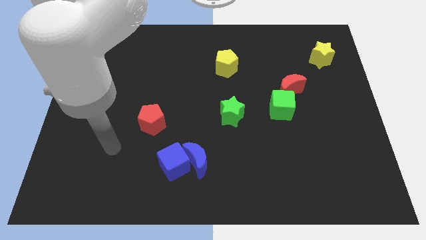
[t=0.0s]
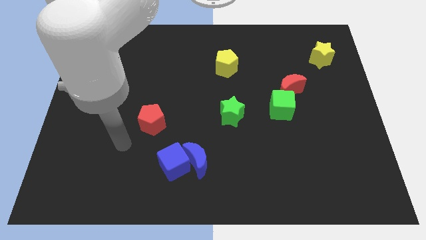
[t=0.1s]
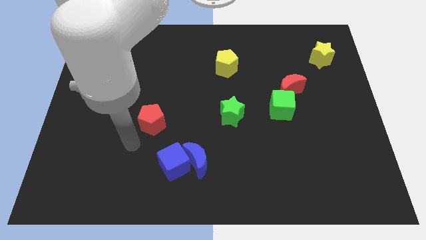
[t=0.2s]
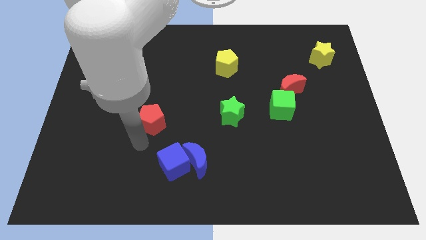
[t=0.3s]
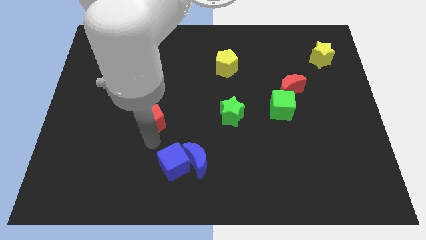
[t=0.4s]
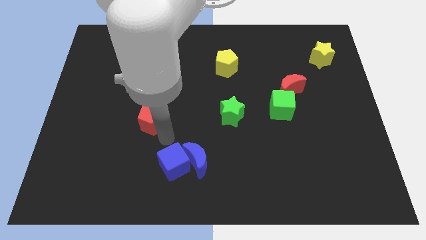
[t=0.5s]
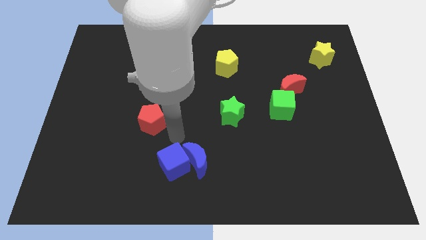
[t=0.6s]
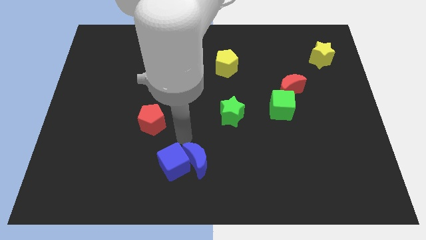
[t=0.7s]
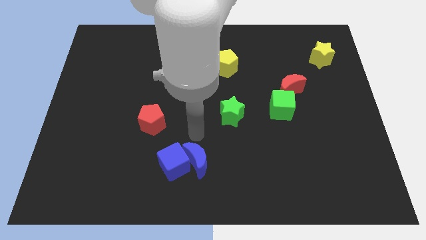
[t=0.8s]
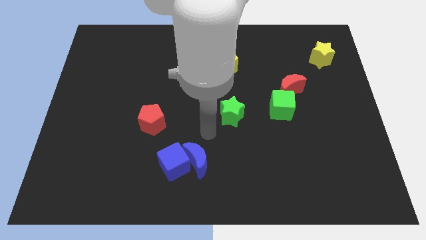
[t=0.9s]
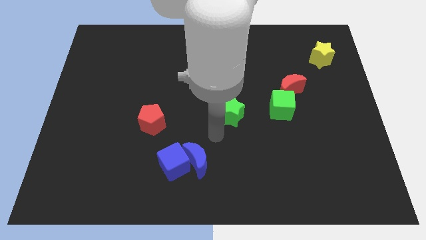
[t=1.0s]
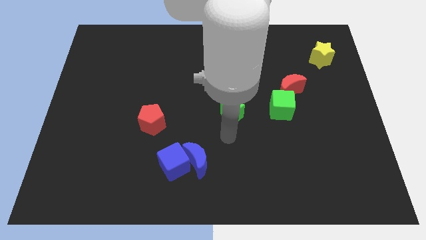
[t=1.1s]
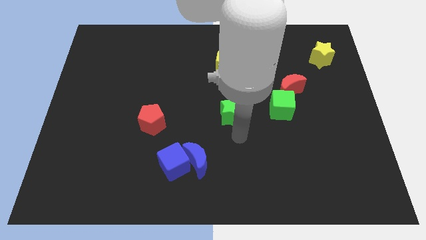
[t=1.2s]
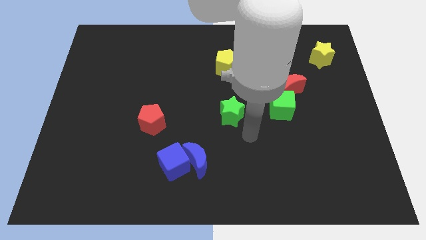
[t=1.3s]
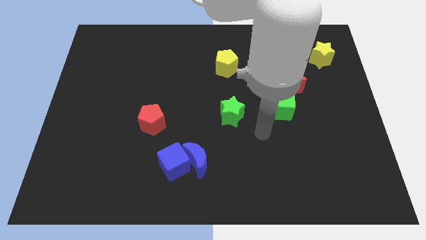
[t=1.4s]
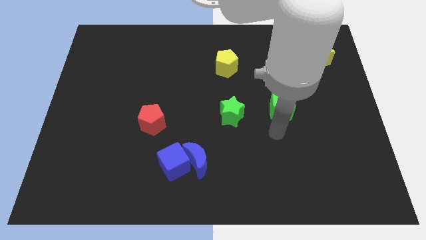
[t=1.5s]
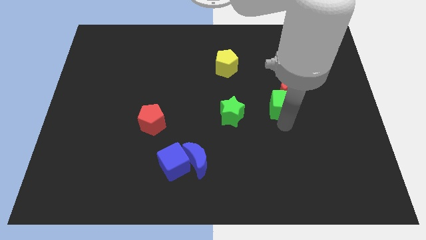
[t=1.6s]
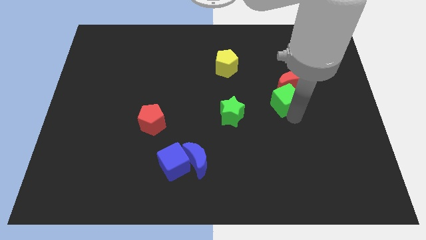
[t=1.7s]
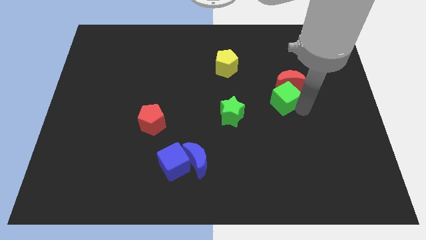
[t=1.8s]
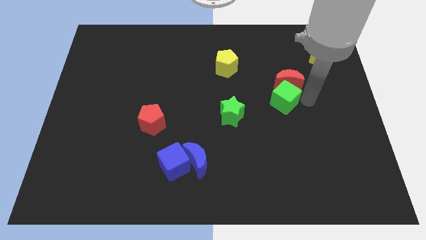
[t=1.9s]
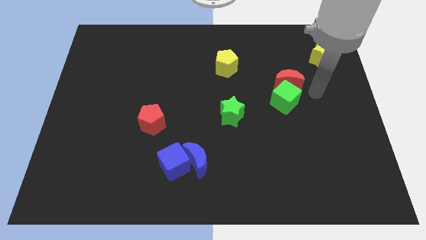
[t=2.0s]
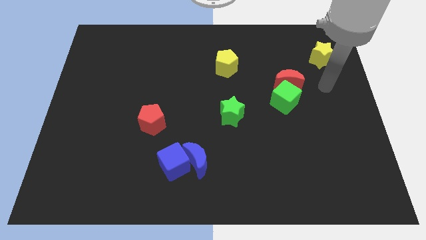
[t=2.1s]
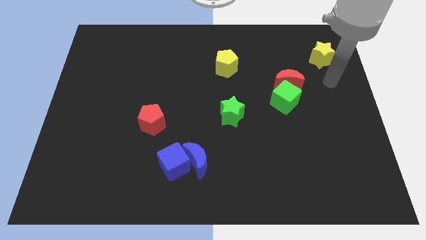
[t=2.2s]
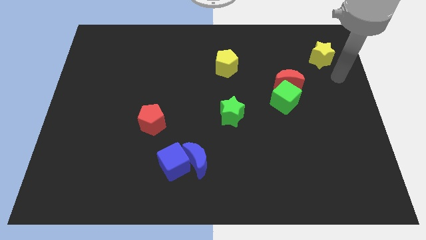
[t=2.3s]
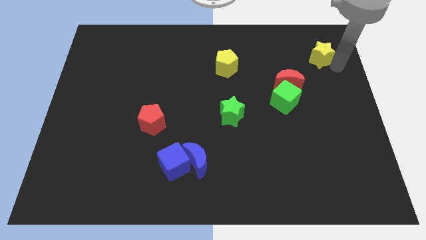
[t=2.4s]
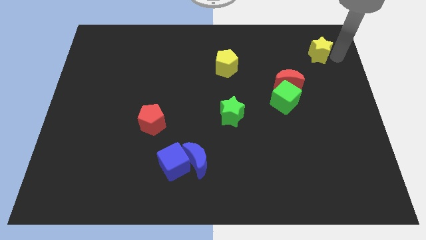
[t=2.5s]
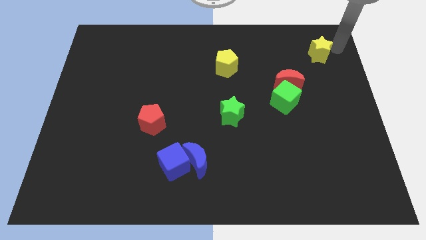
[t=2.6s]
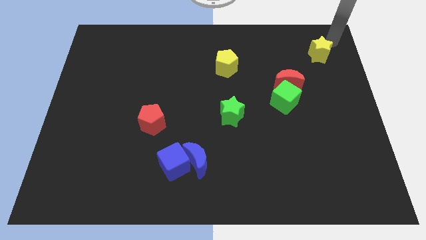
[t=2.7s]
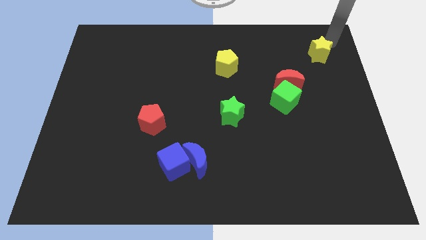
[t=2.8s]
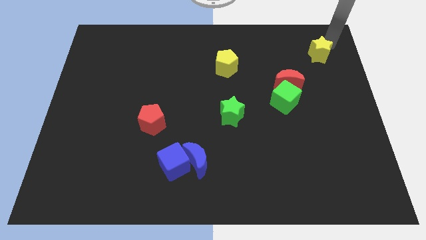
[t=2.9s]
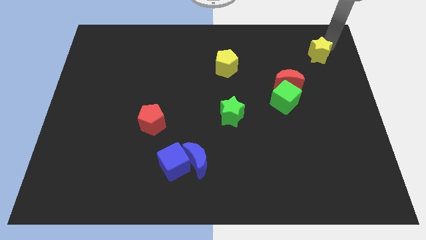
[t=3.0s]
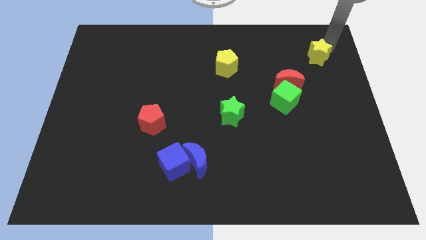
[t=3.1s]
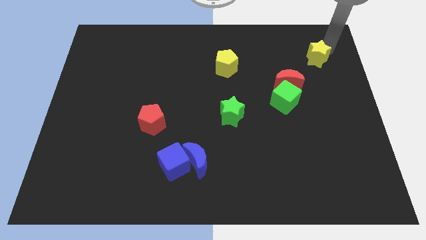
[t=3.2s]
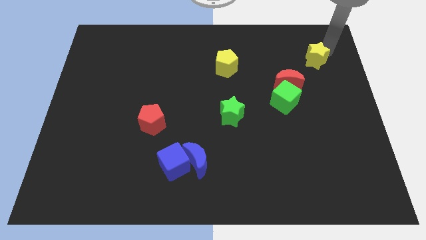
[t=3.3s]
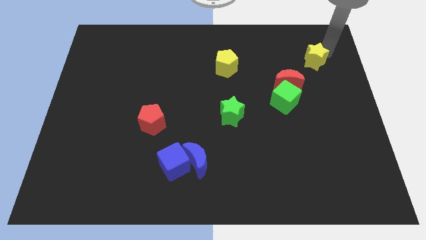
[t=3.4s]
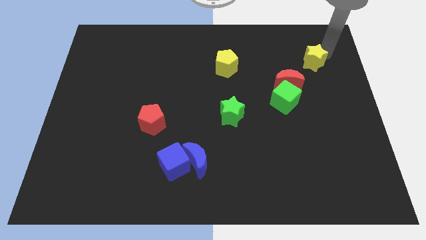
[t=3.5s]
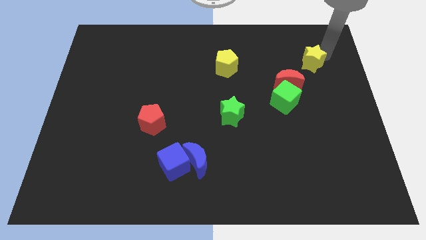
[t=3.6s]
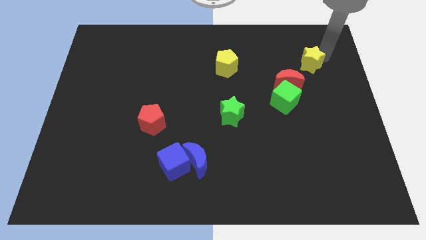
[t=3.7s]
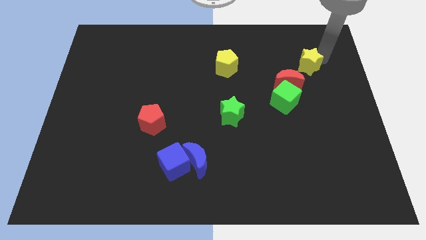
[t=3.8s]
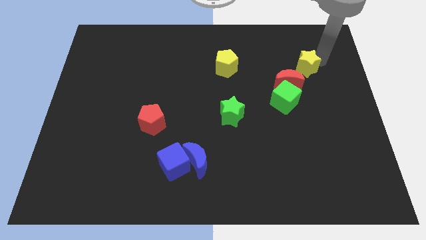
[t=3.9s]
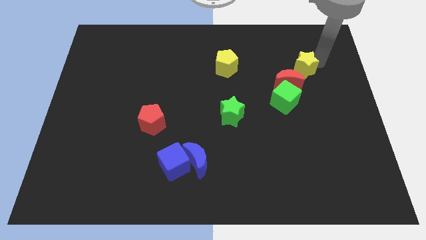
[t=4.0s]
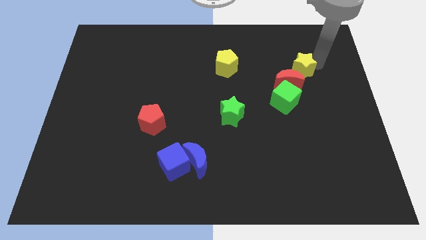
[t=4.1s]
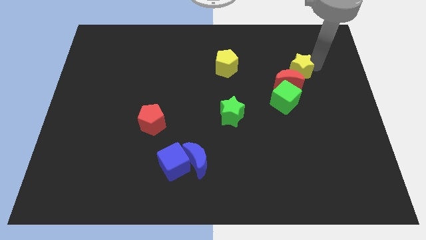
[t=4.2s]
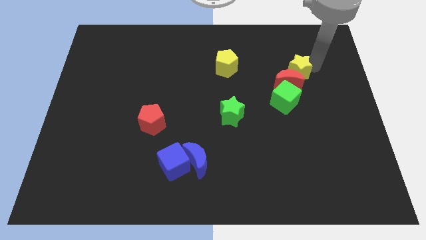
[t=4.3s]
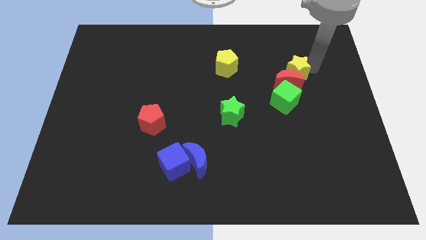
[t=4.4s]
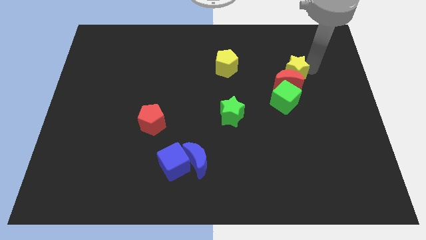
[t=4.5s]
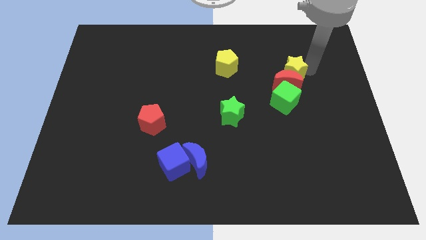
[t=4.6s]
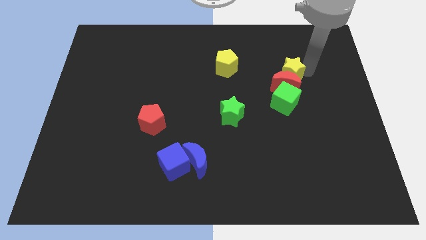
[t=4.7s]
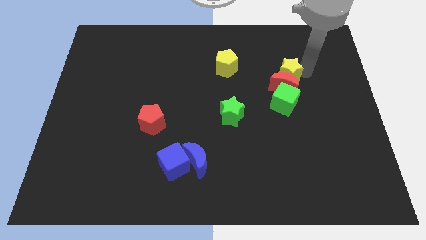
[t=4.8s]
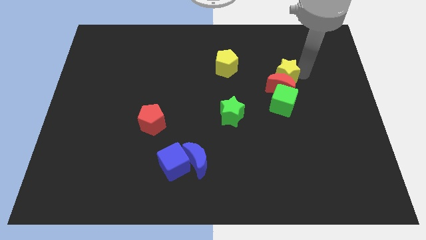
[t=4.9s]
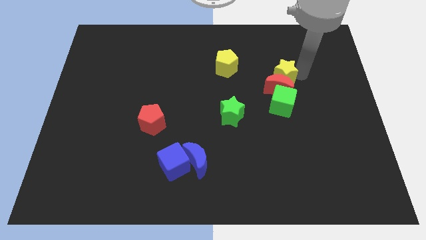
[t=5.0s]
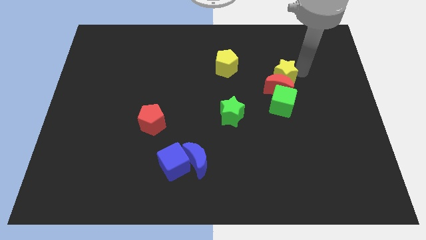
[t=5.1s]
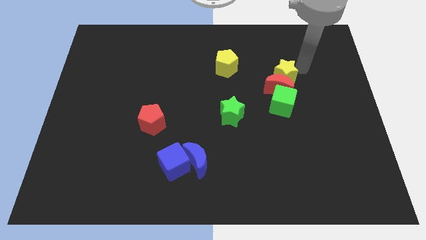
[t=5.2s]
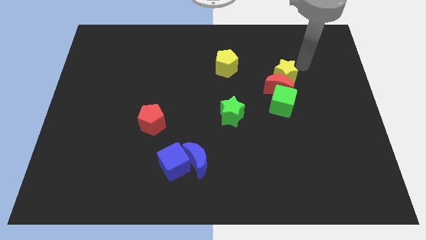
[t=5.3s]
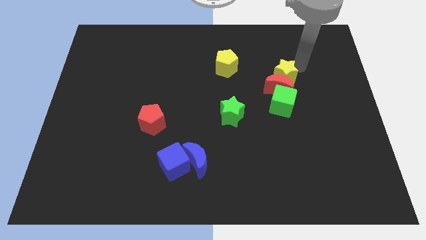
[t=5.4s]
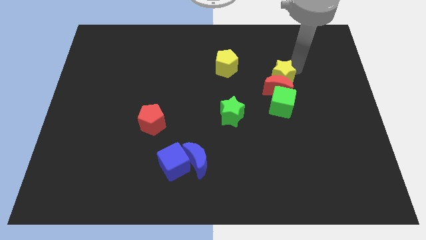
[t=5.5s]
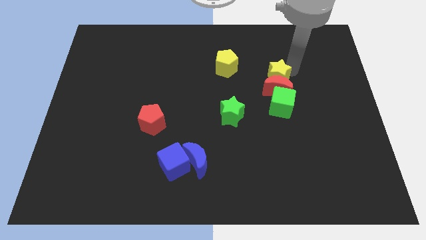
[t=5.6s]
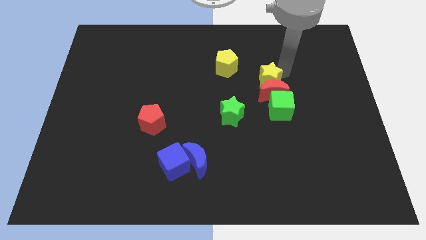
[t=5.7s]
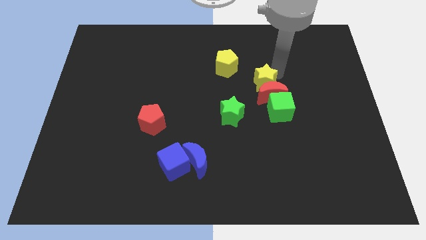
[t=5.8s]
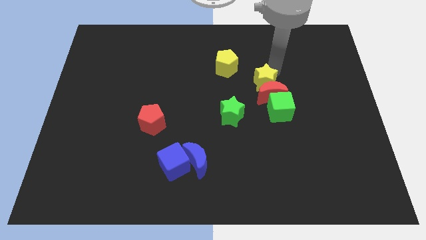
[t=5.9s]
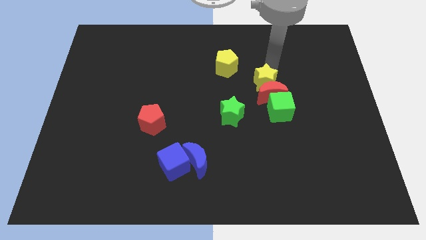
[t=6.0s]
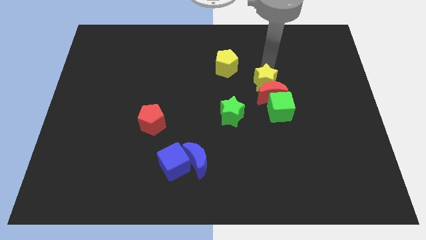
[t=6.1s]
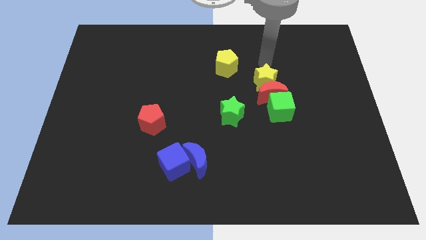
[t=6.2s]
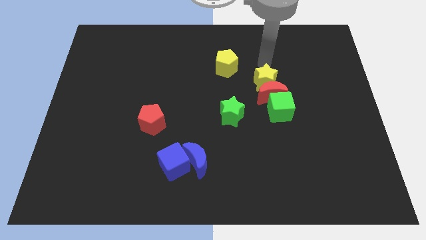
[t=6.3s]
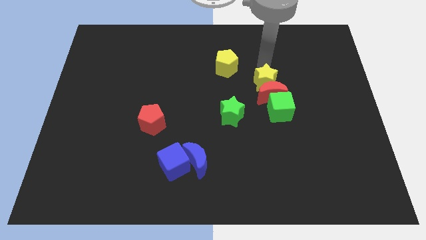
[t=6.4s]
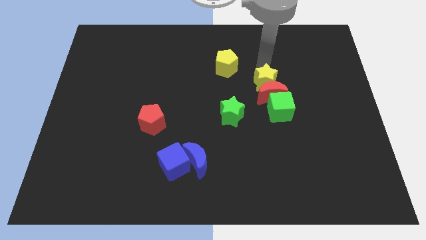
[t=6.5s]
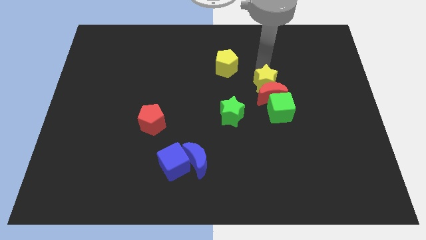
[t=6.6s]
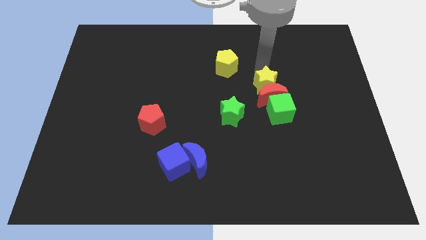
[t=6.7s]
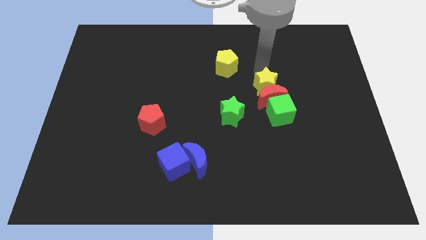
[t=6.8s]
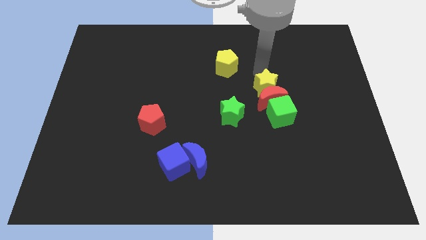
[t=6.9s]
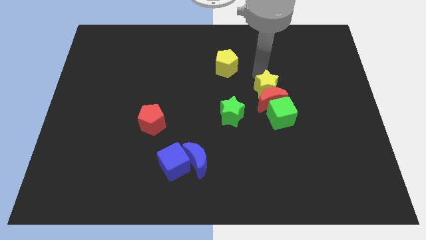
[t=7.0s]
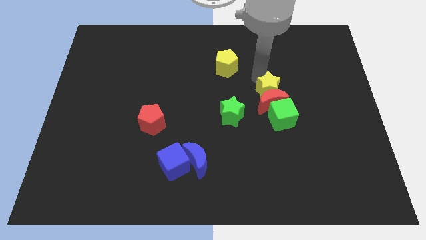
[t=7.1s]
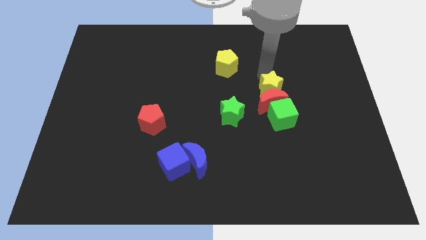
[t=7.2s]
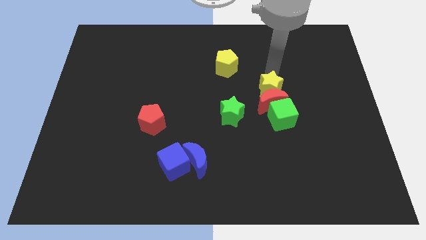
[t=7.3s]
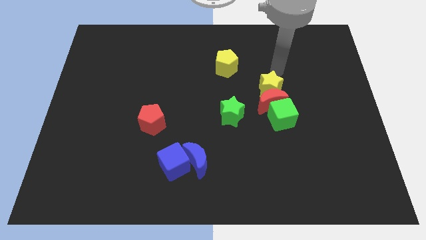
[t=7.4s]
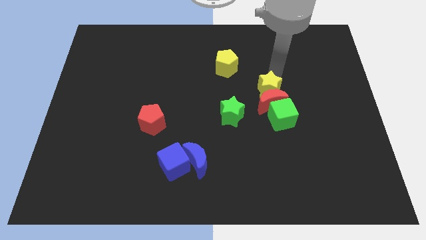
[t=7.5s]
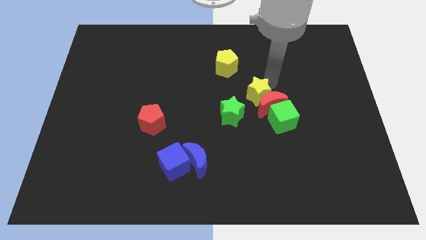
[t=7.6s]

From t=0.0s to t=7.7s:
move the yellow star down and then left

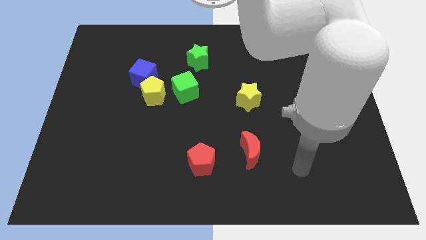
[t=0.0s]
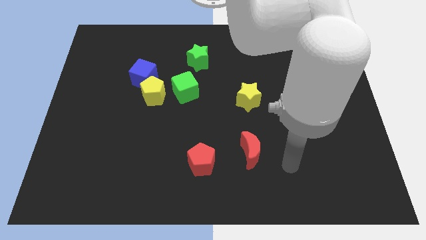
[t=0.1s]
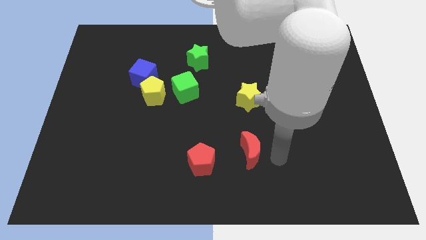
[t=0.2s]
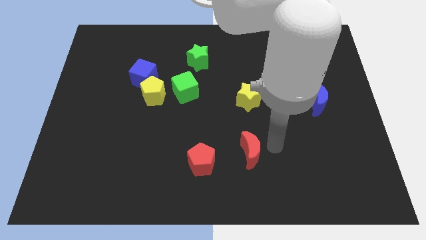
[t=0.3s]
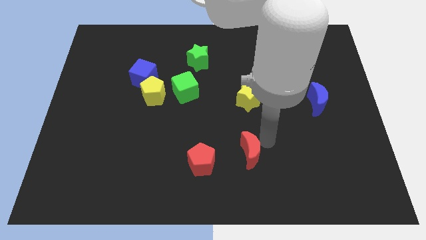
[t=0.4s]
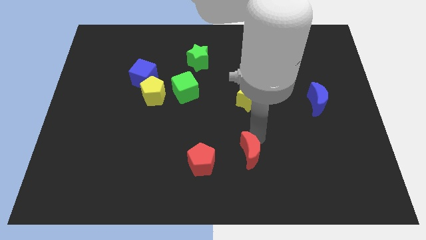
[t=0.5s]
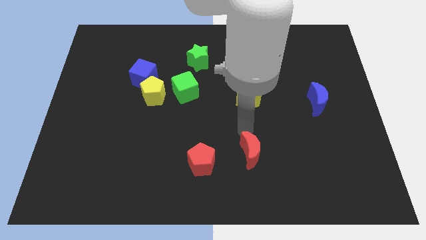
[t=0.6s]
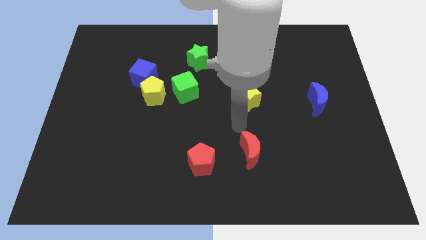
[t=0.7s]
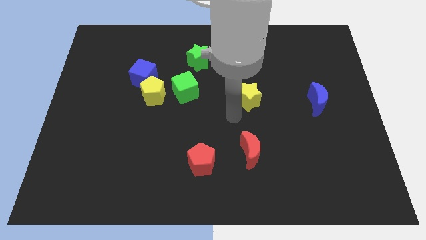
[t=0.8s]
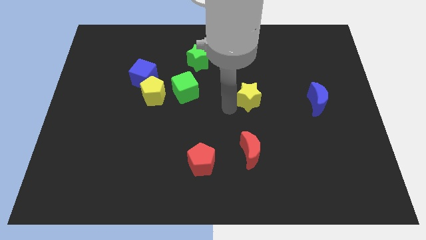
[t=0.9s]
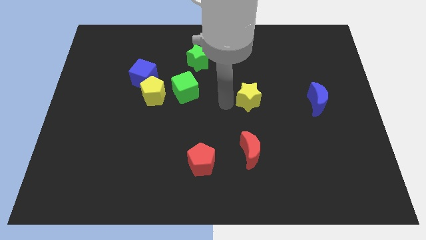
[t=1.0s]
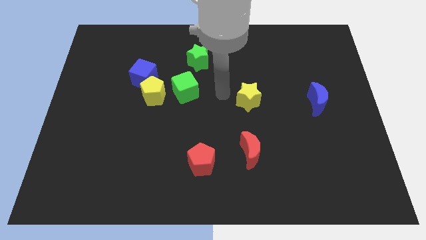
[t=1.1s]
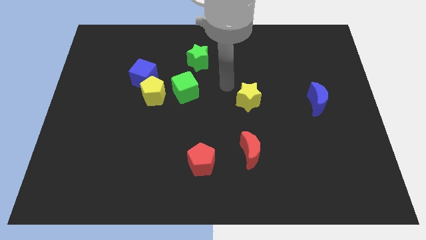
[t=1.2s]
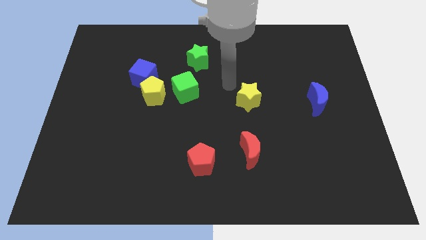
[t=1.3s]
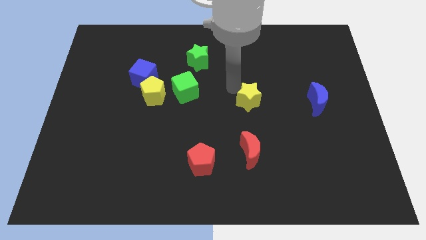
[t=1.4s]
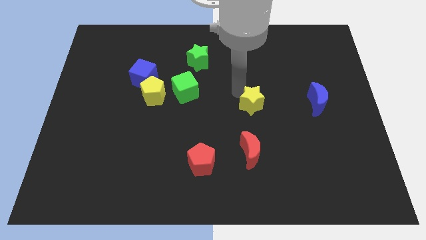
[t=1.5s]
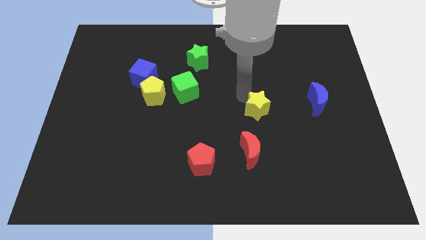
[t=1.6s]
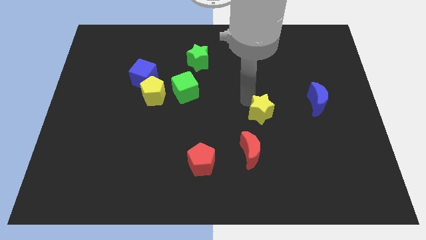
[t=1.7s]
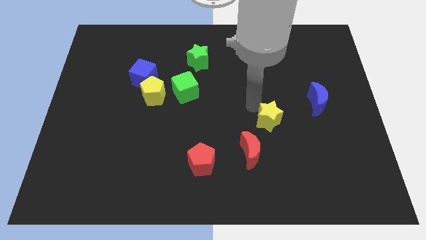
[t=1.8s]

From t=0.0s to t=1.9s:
slide the yellow star diagonally downwards and to the right somewhat
